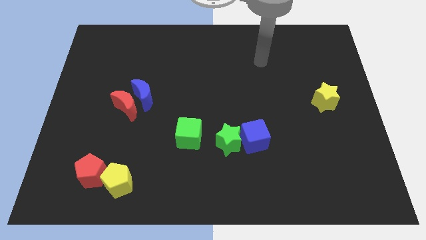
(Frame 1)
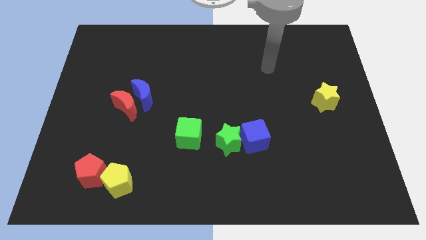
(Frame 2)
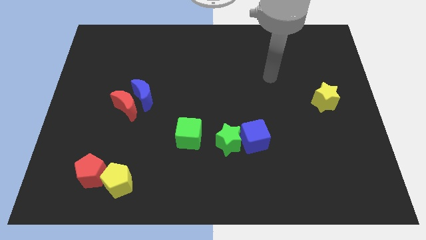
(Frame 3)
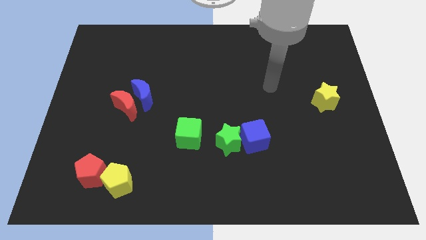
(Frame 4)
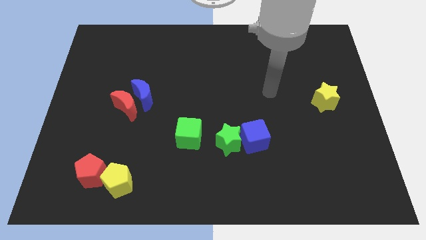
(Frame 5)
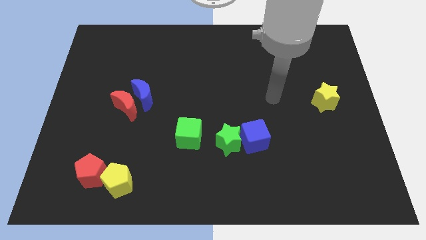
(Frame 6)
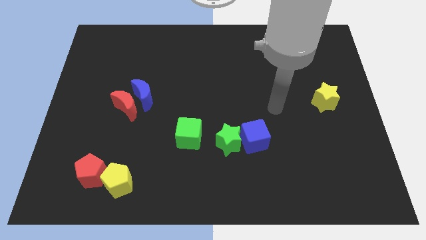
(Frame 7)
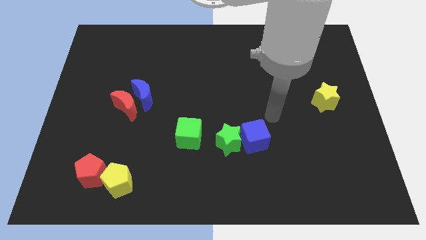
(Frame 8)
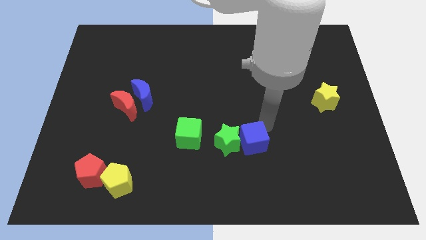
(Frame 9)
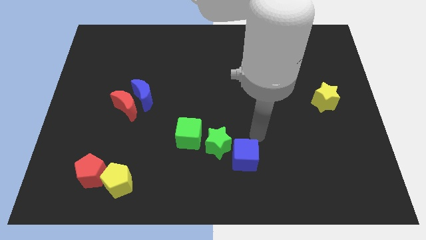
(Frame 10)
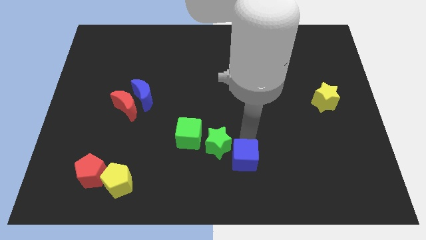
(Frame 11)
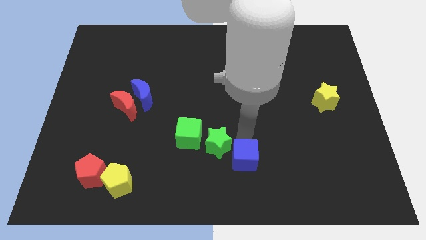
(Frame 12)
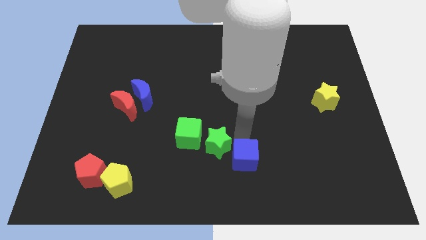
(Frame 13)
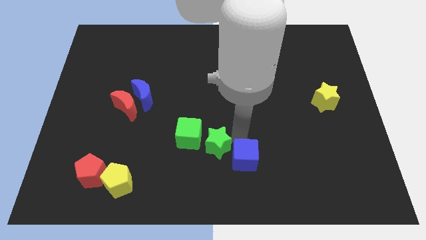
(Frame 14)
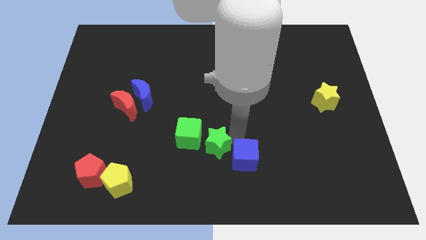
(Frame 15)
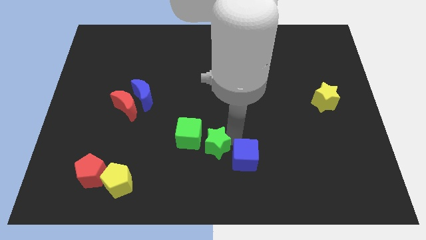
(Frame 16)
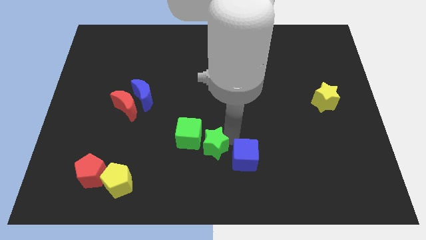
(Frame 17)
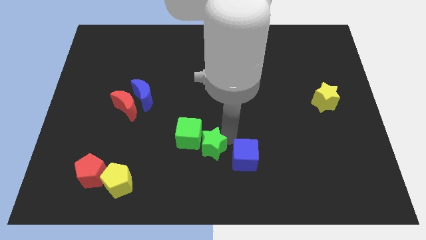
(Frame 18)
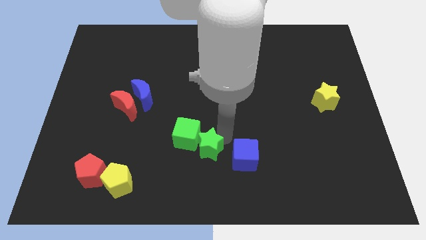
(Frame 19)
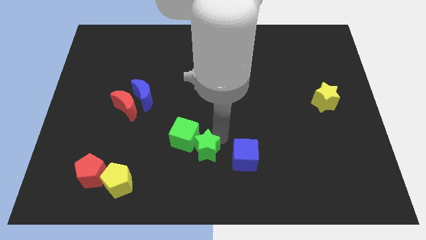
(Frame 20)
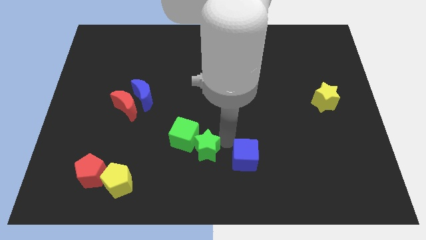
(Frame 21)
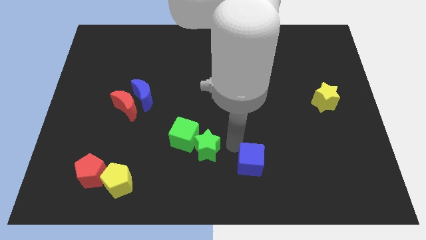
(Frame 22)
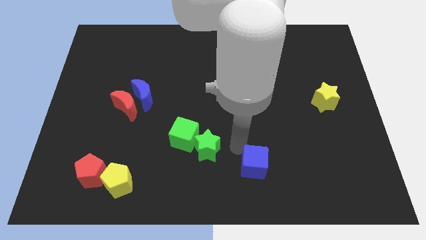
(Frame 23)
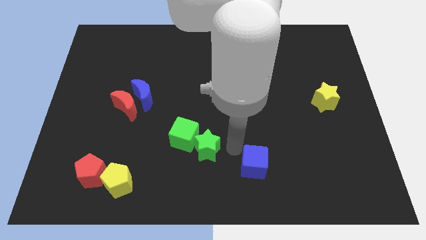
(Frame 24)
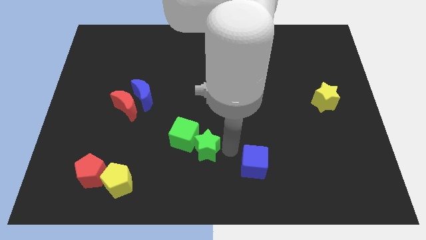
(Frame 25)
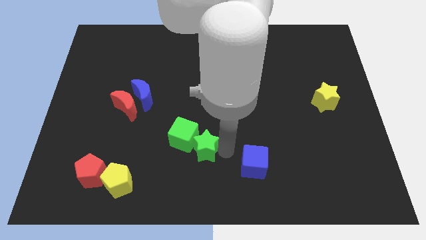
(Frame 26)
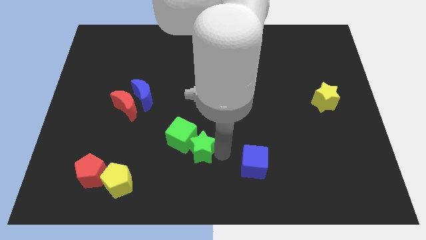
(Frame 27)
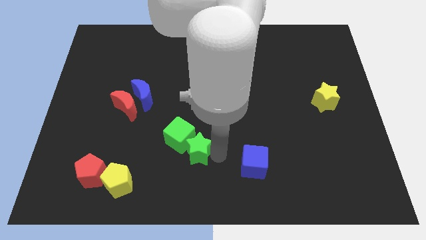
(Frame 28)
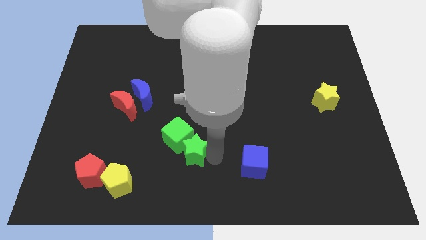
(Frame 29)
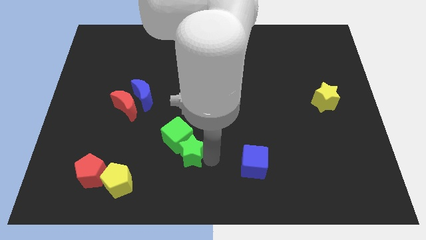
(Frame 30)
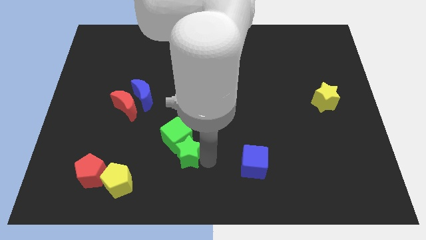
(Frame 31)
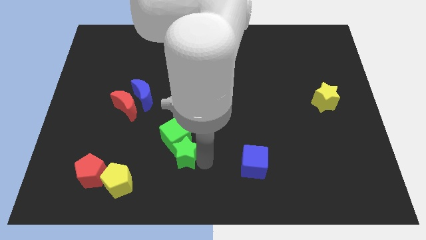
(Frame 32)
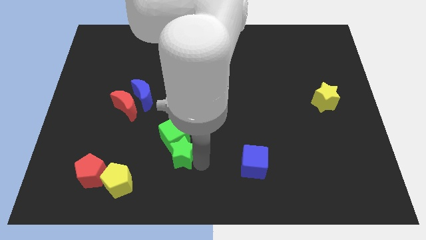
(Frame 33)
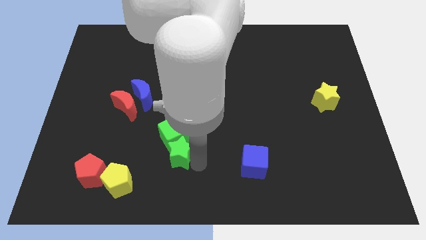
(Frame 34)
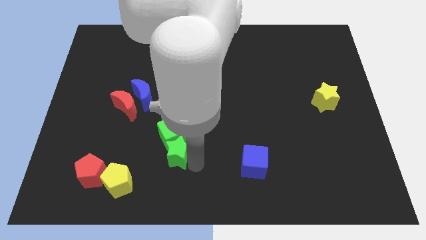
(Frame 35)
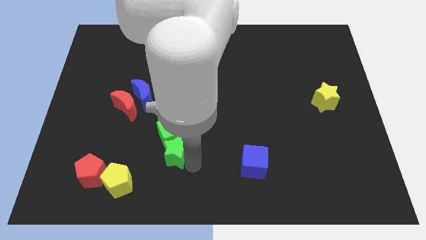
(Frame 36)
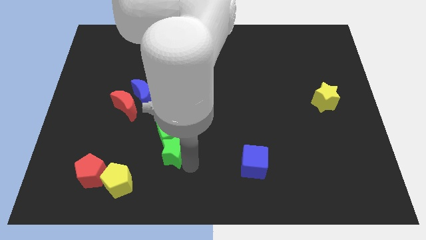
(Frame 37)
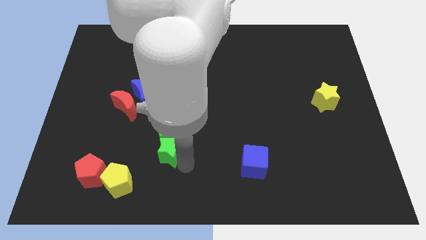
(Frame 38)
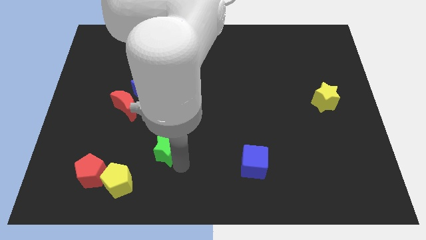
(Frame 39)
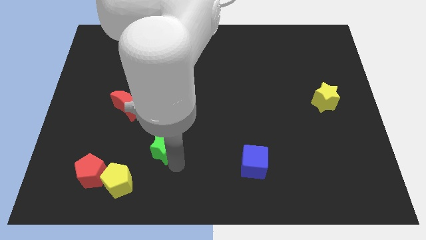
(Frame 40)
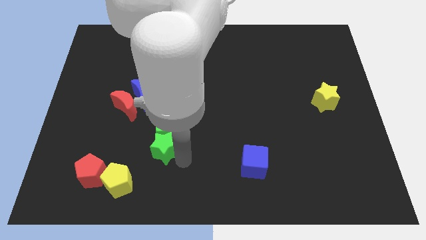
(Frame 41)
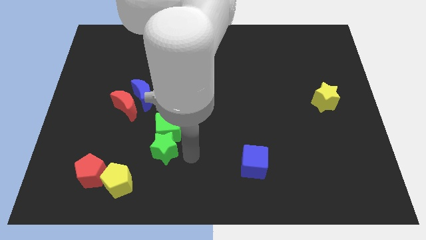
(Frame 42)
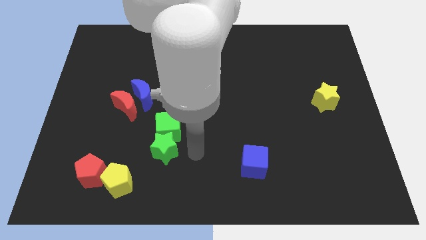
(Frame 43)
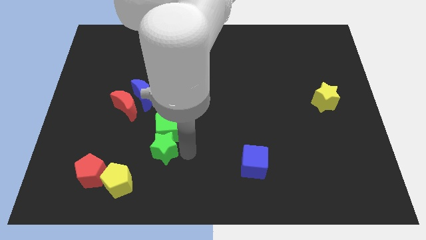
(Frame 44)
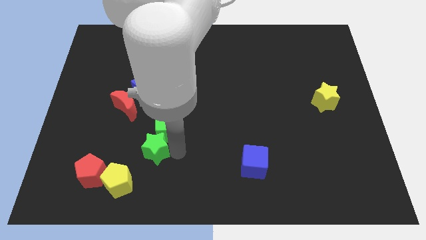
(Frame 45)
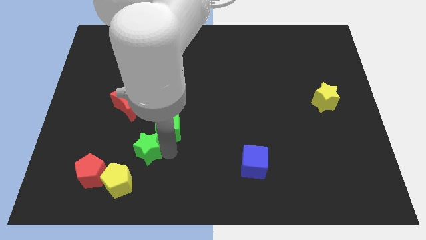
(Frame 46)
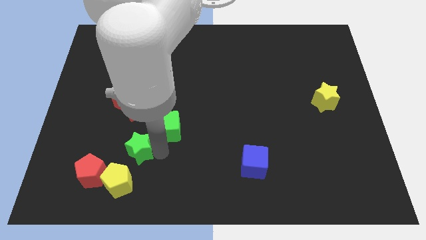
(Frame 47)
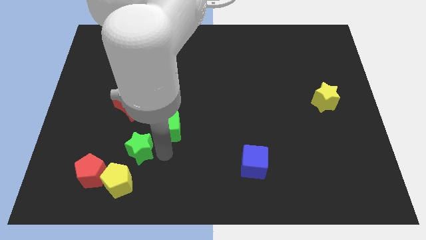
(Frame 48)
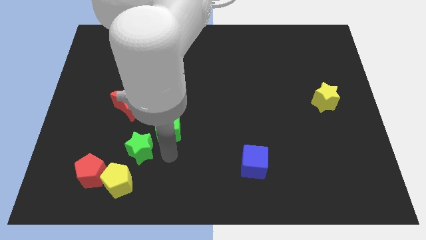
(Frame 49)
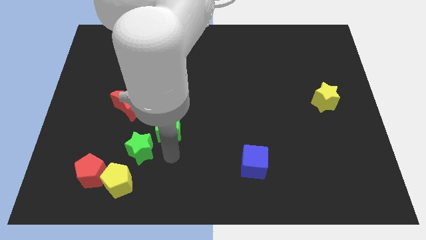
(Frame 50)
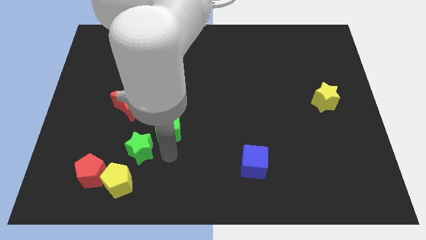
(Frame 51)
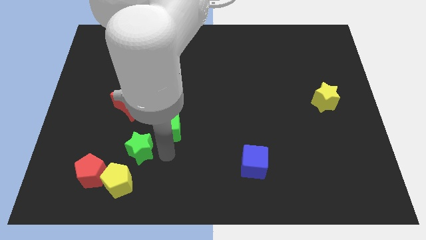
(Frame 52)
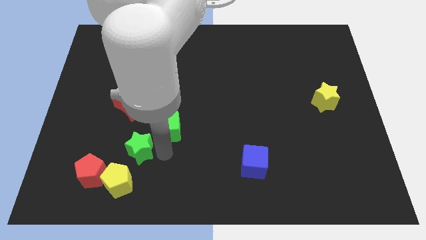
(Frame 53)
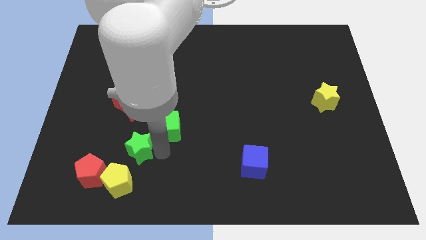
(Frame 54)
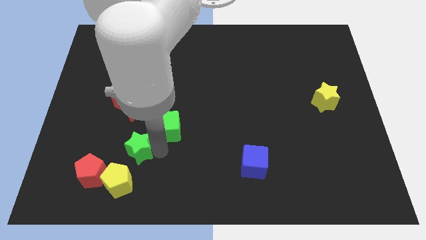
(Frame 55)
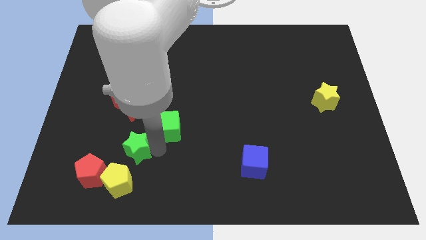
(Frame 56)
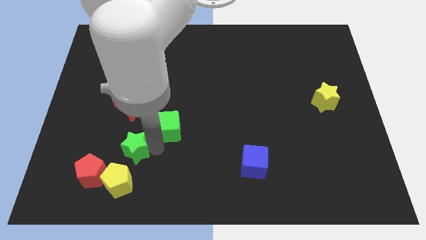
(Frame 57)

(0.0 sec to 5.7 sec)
push the green star to the left

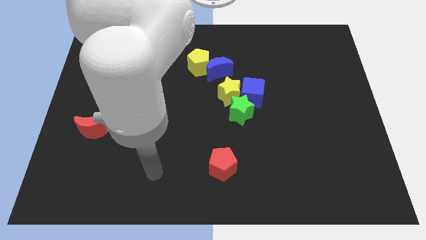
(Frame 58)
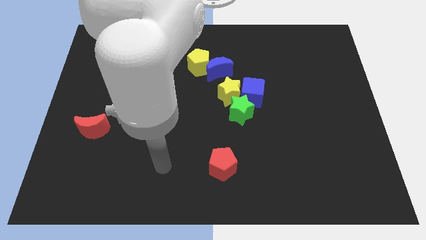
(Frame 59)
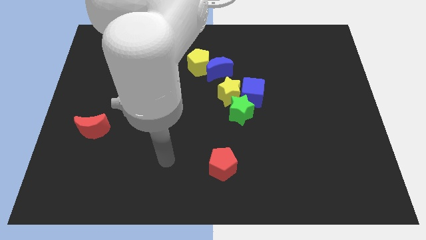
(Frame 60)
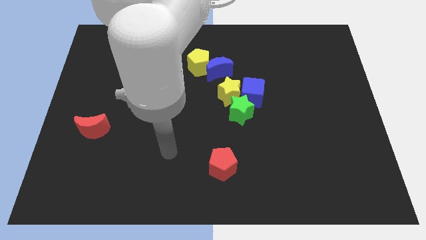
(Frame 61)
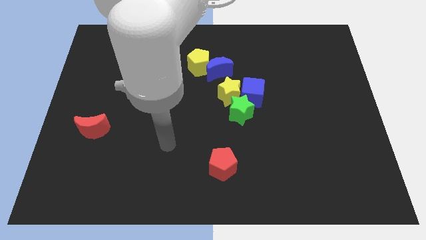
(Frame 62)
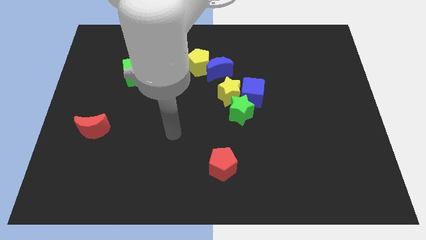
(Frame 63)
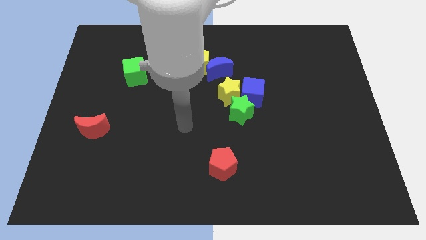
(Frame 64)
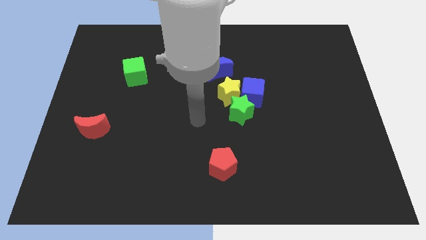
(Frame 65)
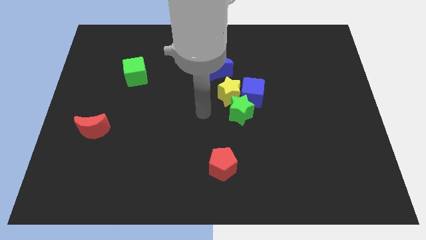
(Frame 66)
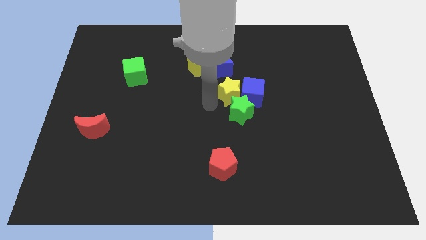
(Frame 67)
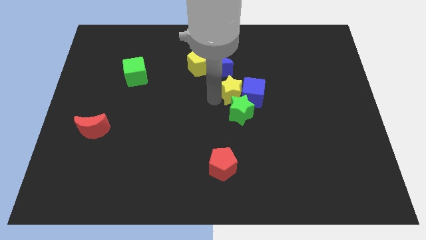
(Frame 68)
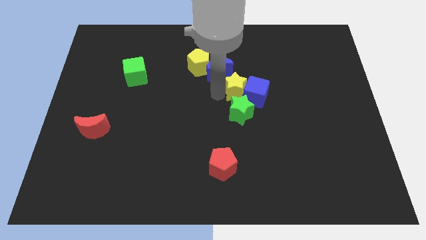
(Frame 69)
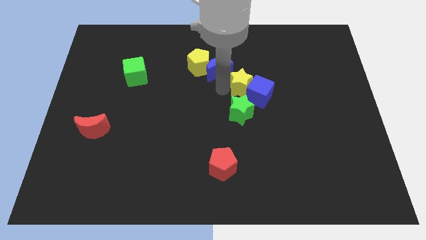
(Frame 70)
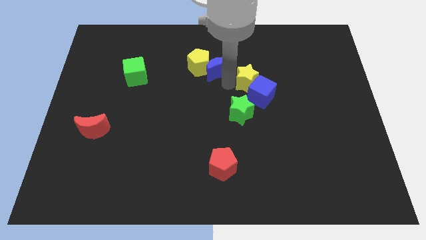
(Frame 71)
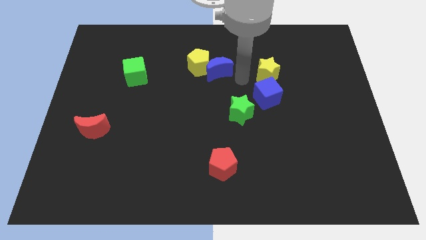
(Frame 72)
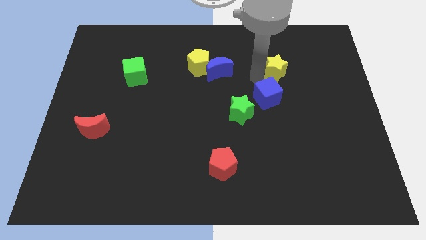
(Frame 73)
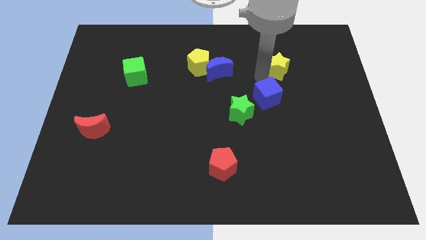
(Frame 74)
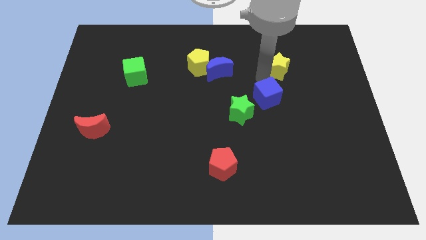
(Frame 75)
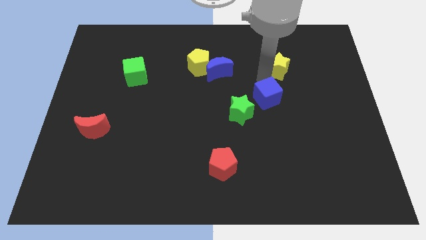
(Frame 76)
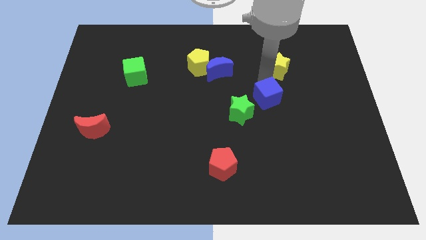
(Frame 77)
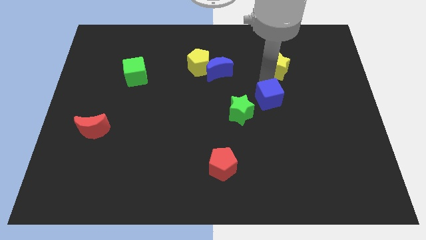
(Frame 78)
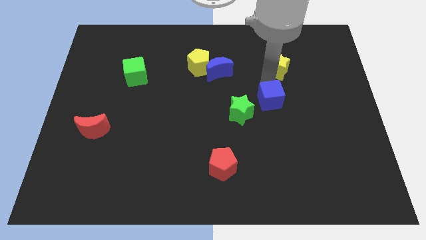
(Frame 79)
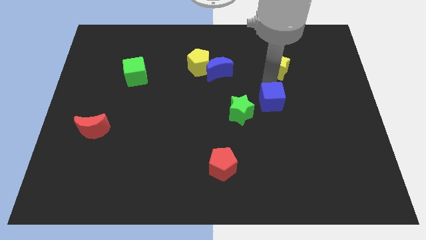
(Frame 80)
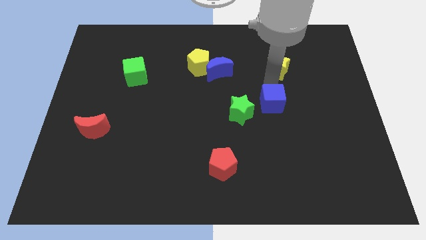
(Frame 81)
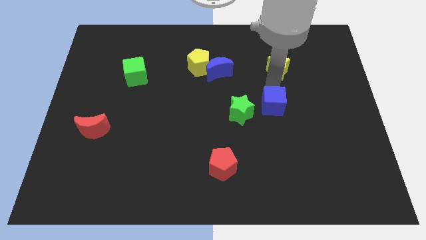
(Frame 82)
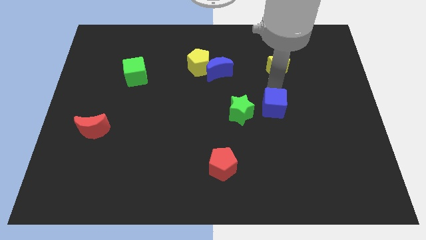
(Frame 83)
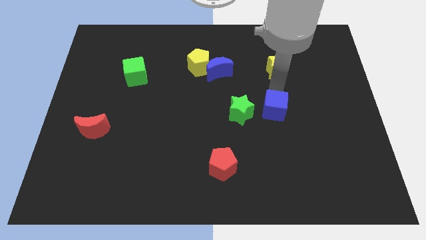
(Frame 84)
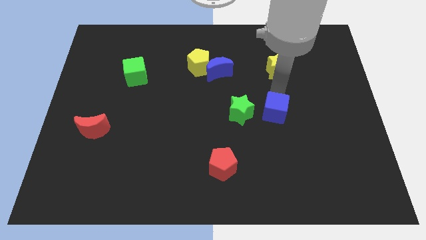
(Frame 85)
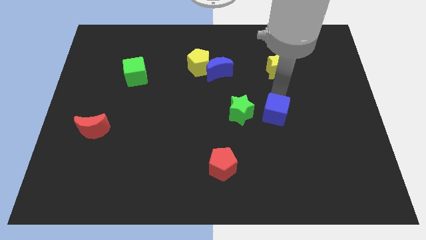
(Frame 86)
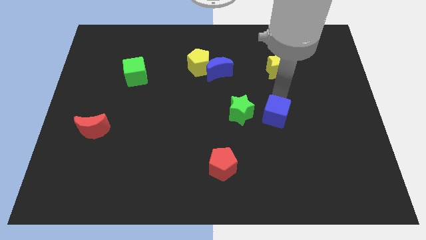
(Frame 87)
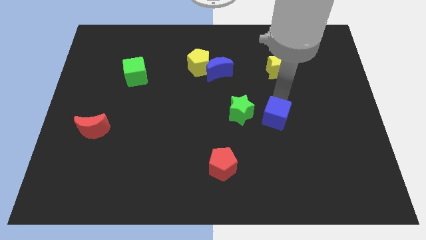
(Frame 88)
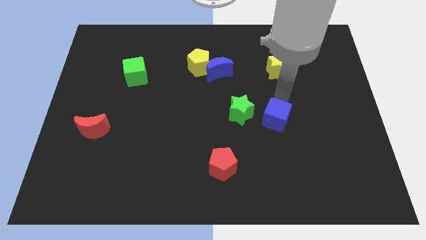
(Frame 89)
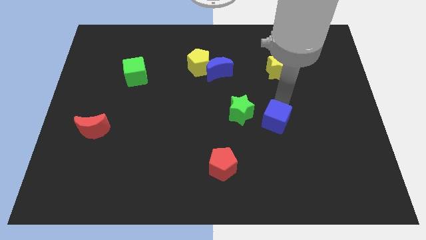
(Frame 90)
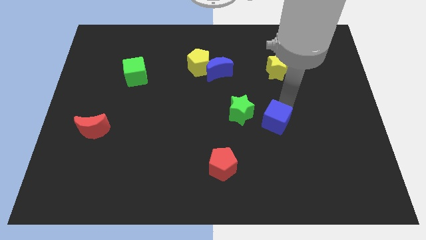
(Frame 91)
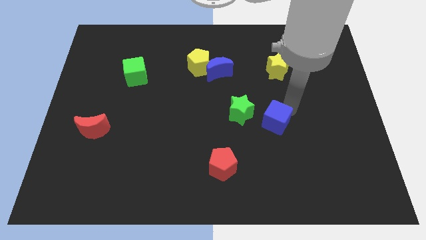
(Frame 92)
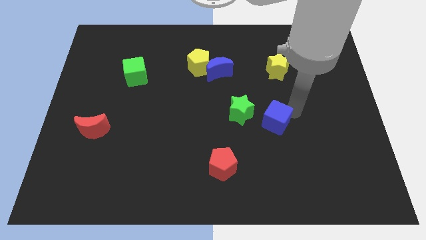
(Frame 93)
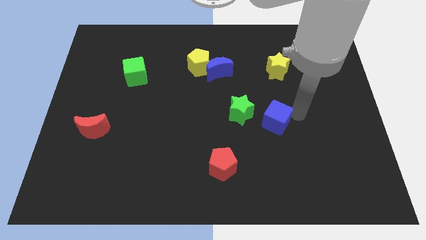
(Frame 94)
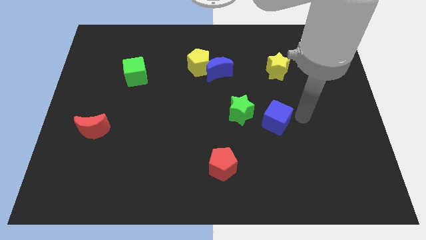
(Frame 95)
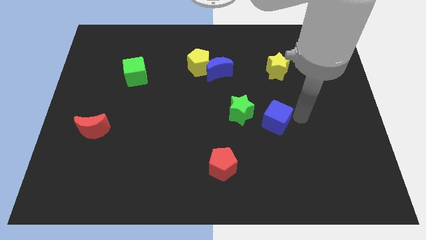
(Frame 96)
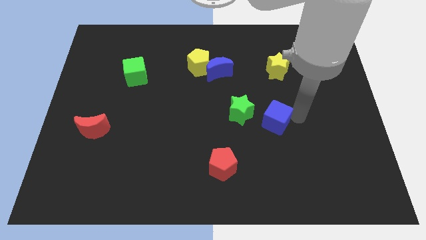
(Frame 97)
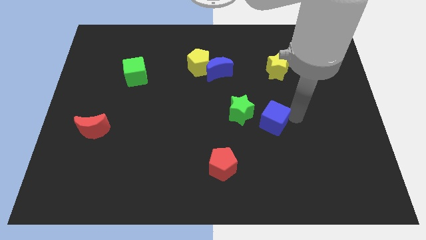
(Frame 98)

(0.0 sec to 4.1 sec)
move the blue cube down somewhat
